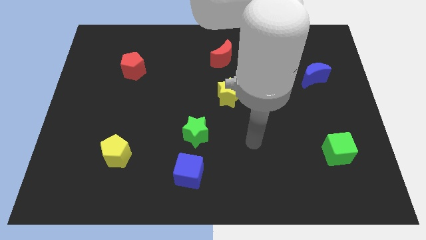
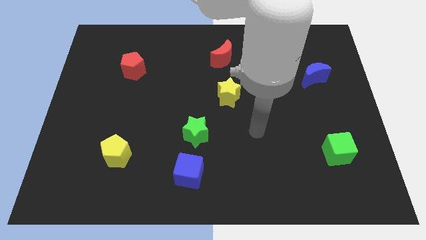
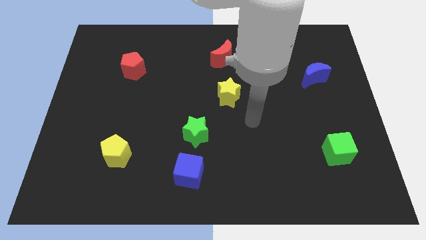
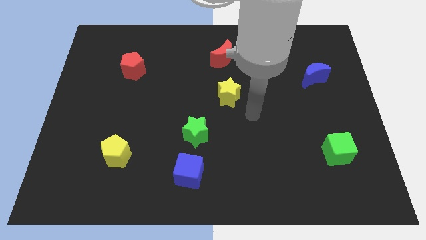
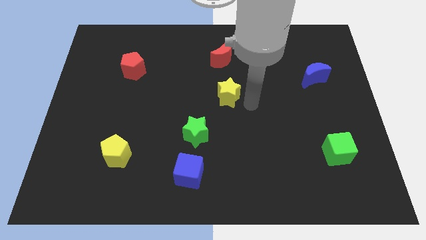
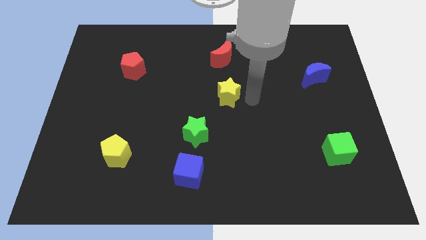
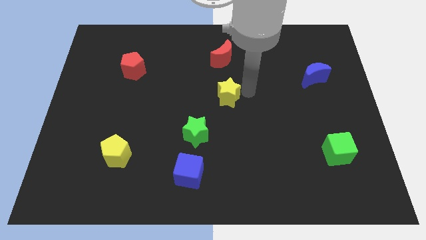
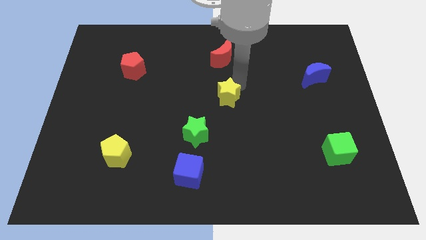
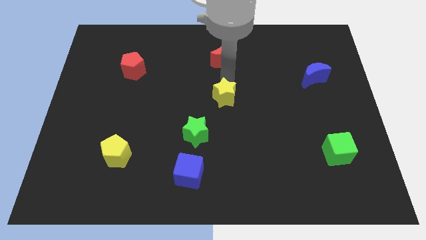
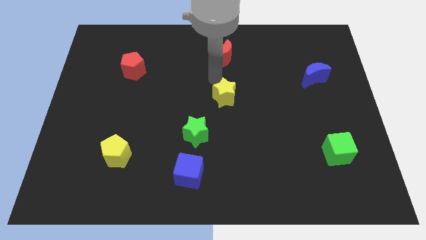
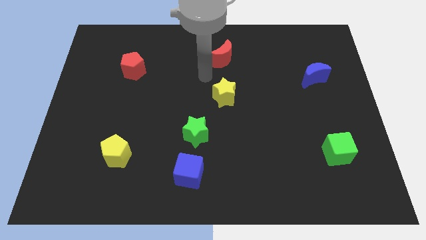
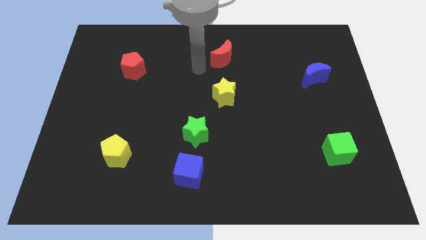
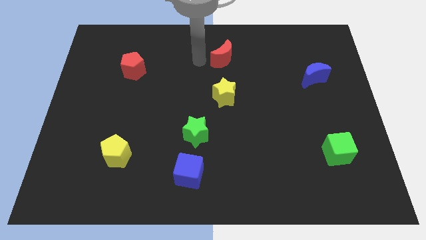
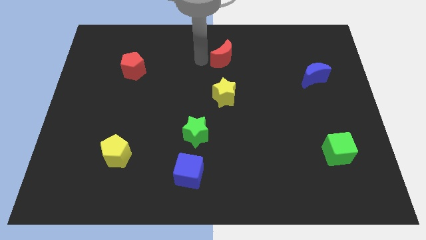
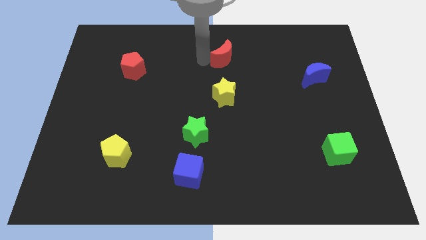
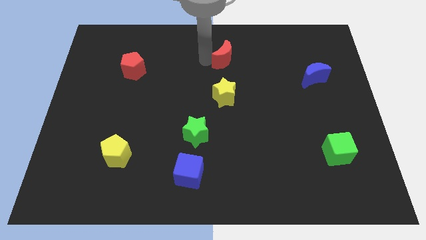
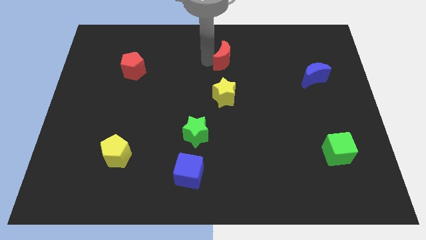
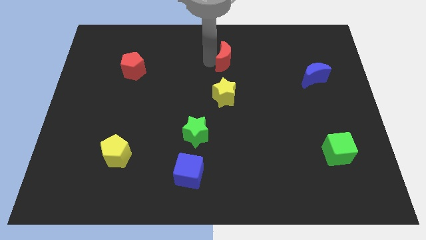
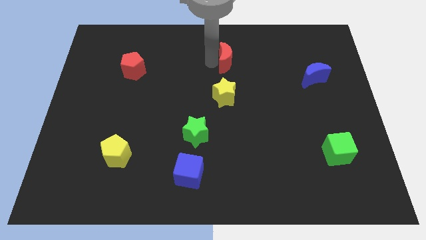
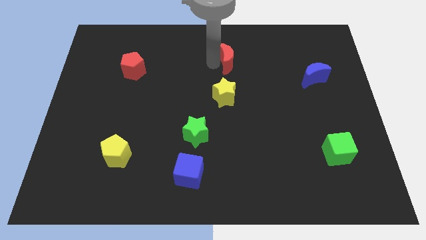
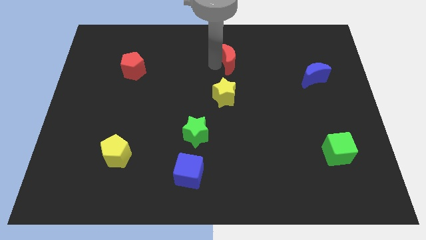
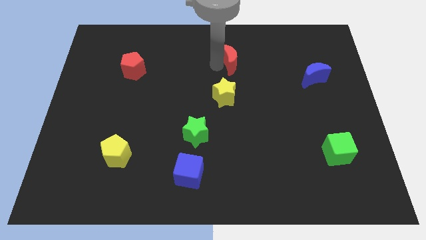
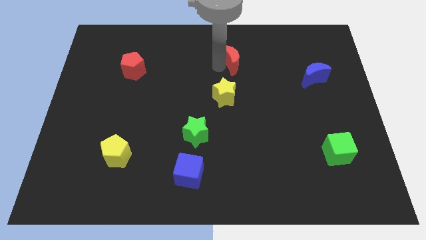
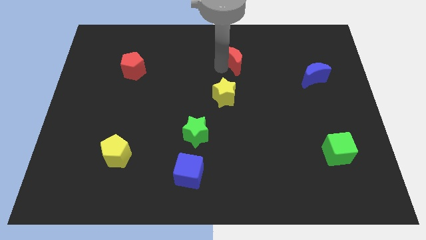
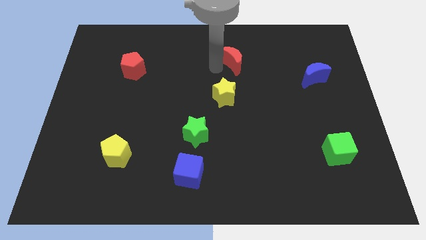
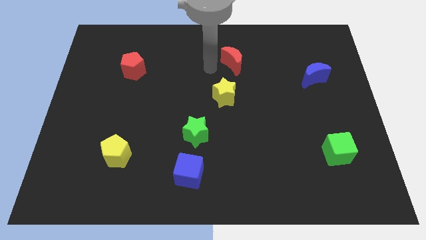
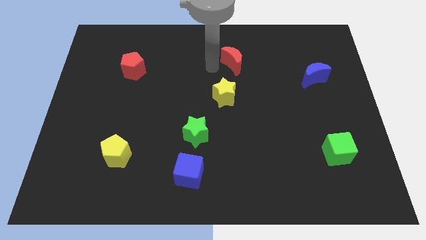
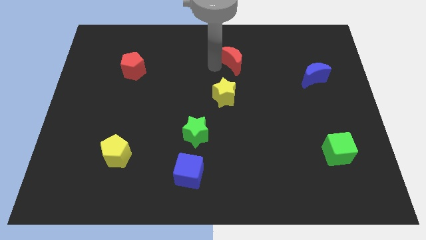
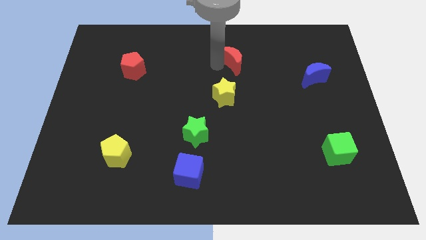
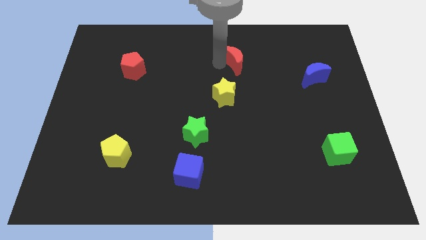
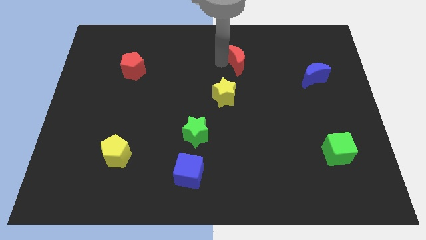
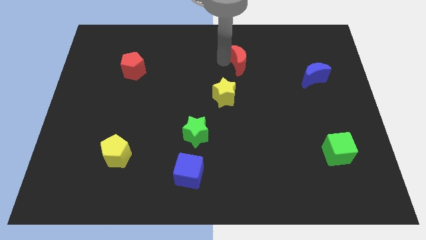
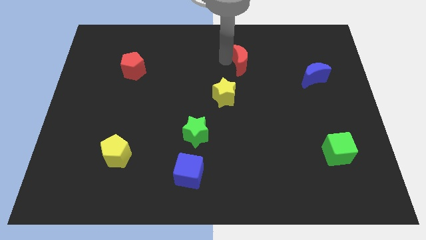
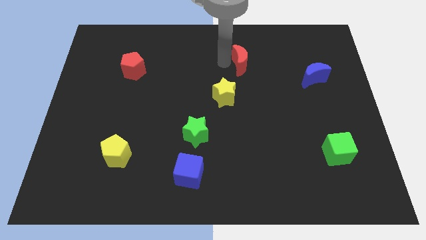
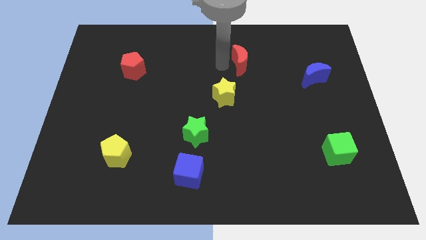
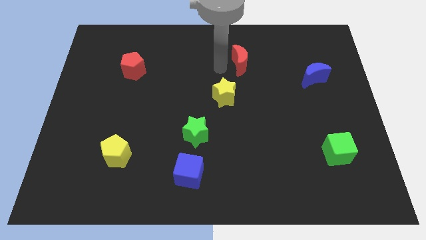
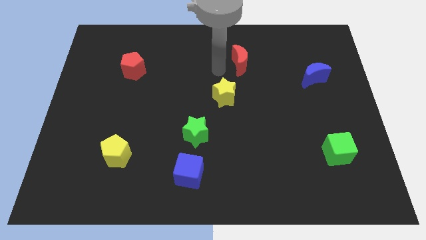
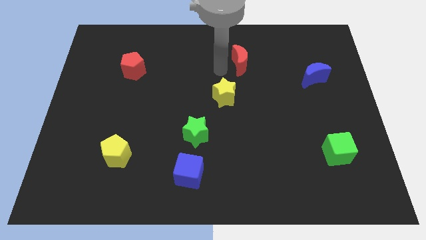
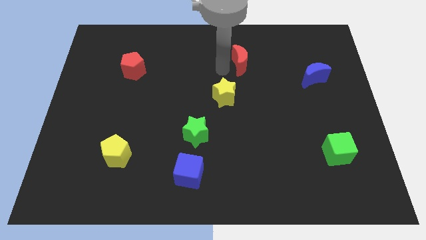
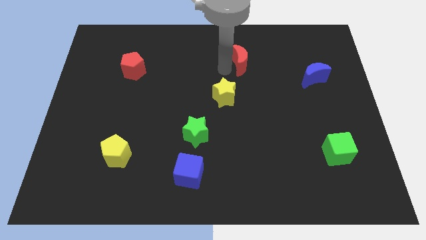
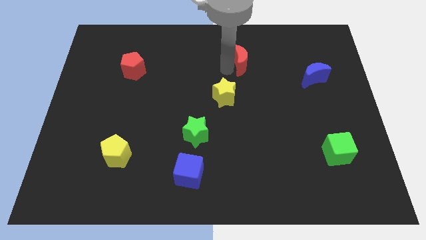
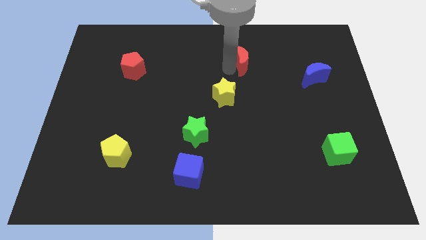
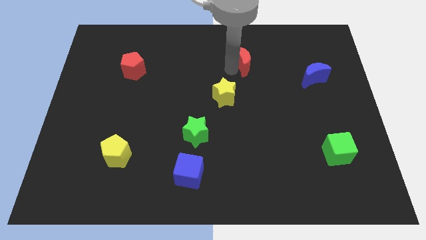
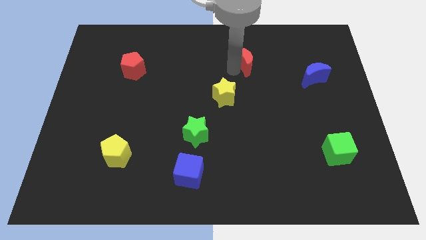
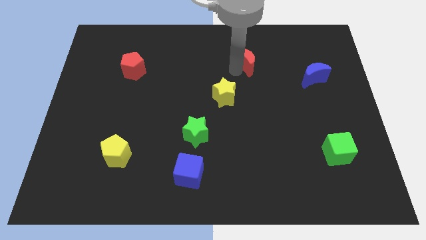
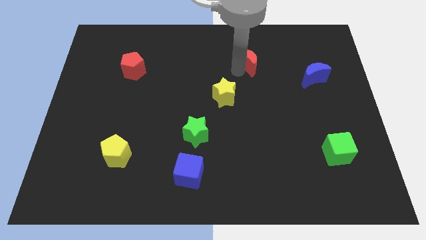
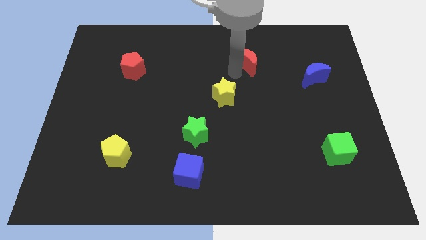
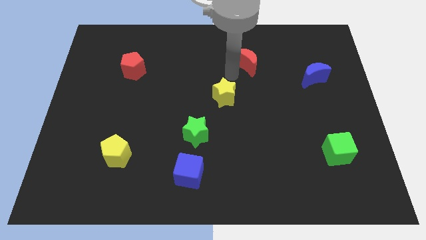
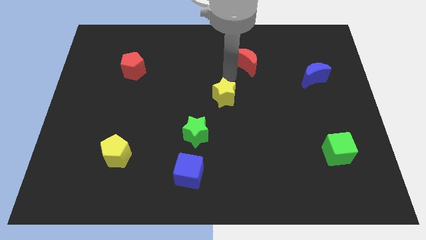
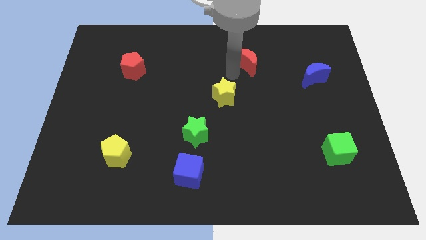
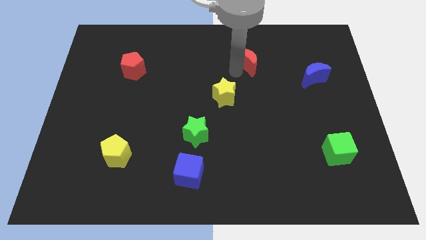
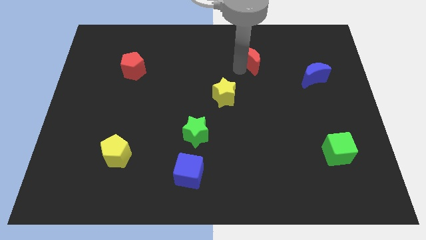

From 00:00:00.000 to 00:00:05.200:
slightly slide the red moon to the right

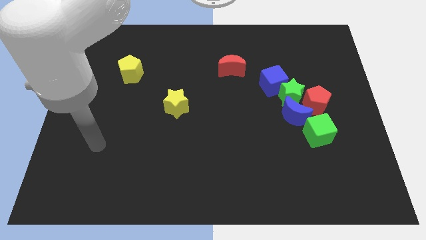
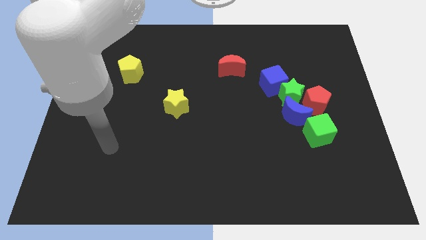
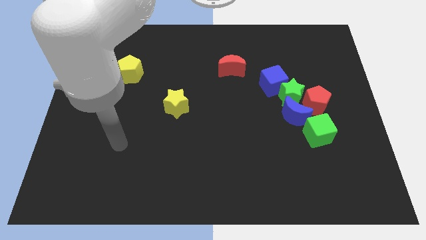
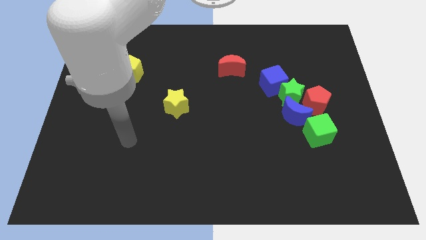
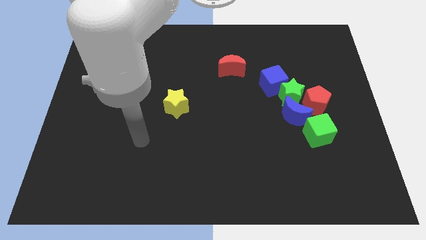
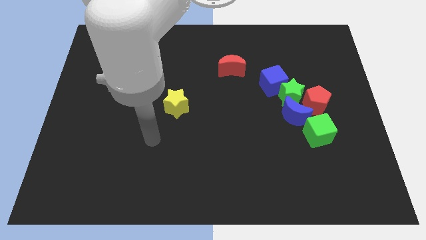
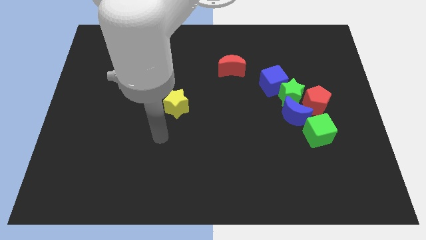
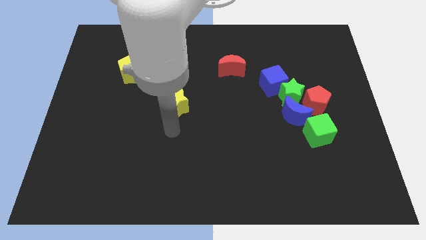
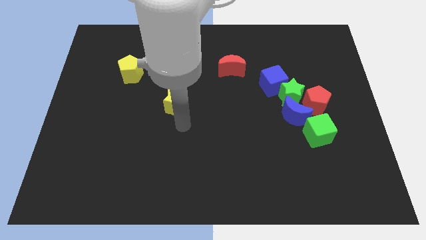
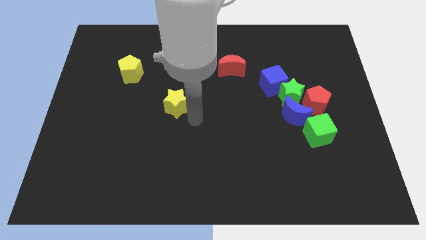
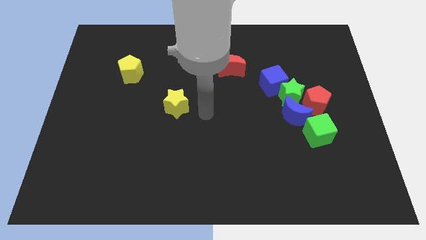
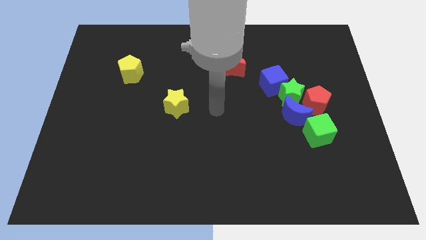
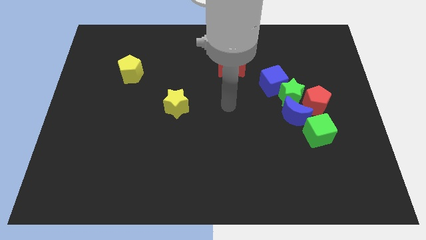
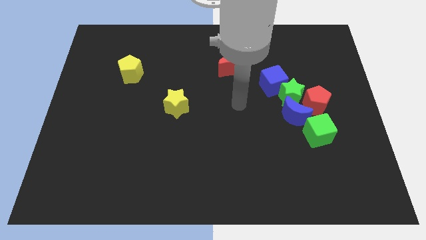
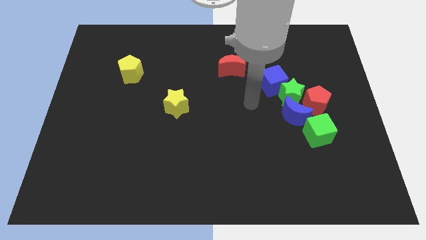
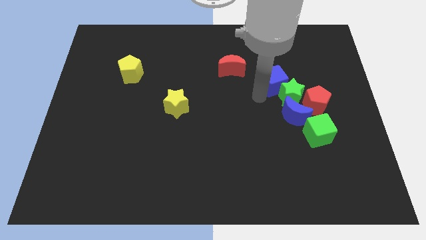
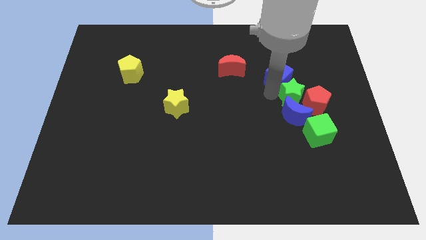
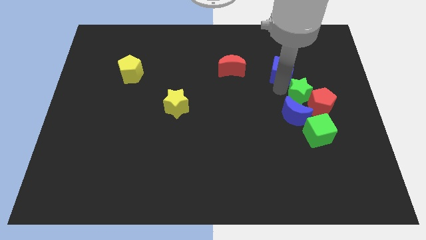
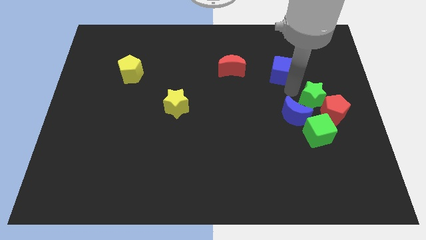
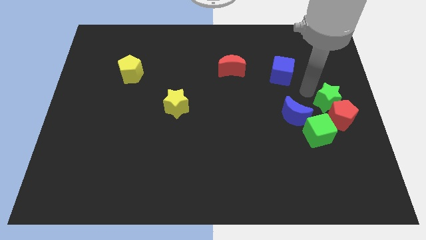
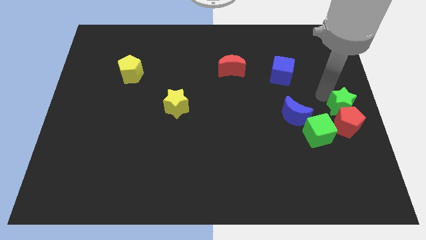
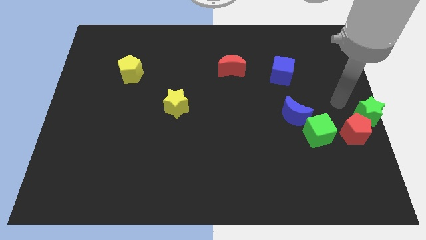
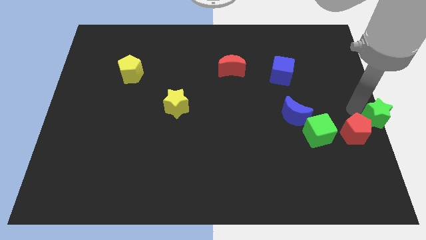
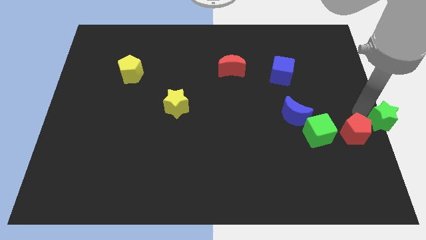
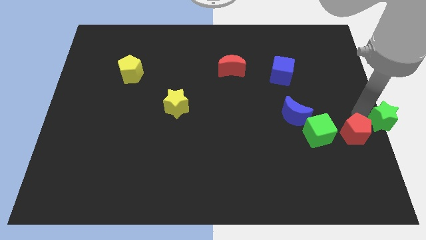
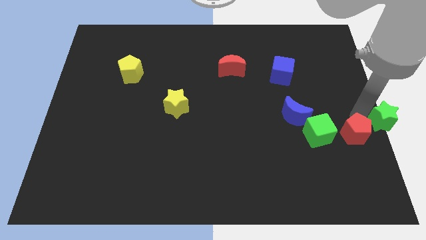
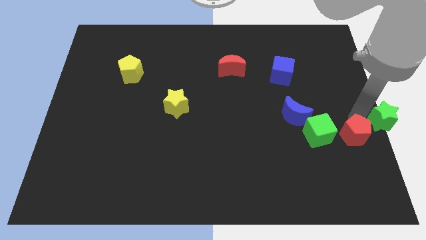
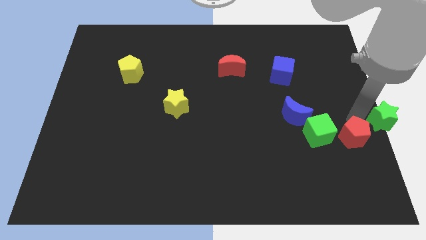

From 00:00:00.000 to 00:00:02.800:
slide the red pentagon downwards a little bit
